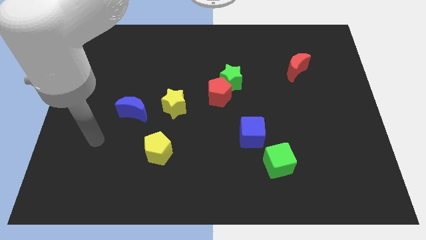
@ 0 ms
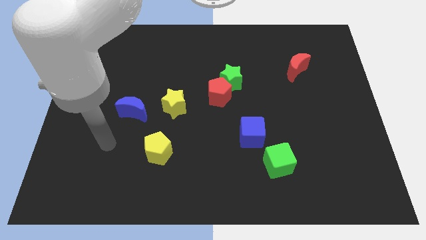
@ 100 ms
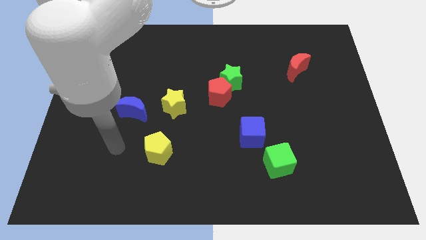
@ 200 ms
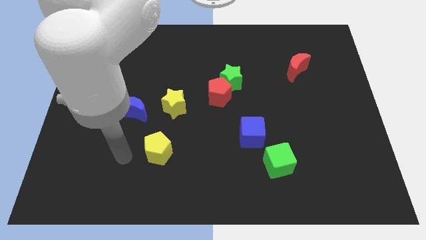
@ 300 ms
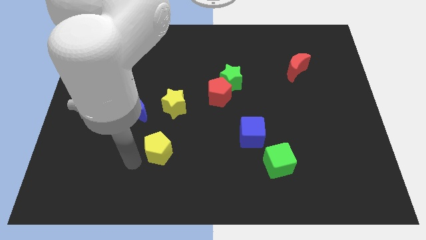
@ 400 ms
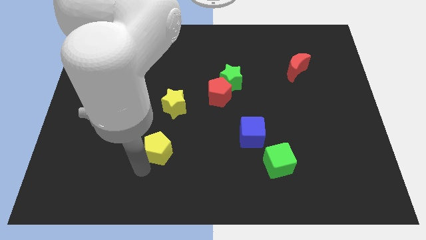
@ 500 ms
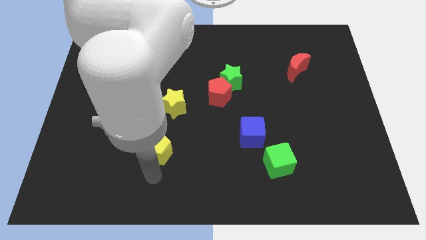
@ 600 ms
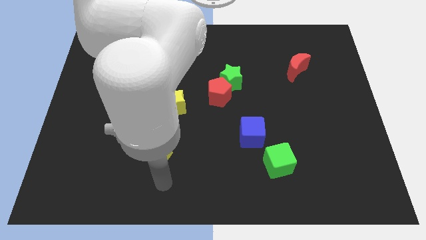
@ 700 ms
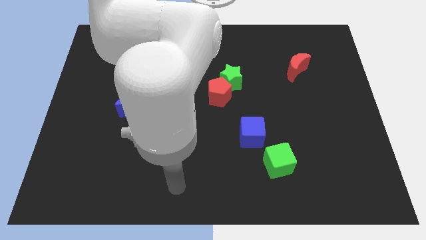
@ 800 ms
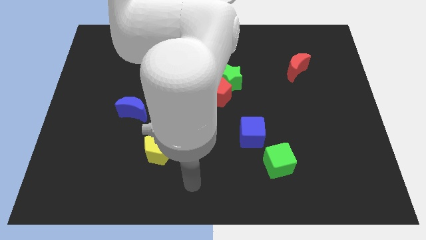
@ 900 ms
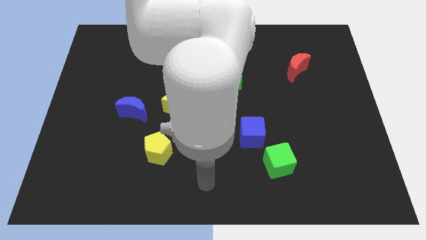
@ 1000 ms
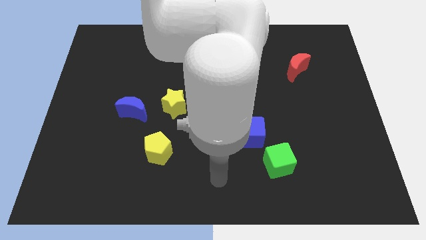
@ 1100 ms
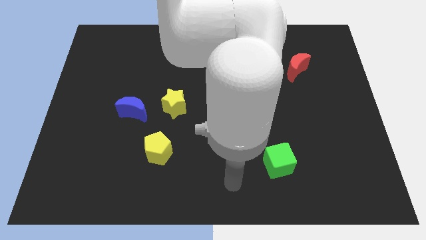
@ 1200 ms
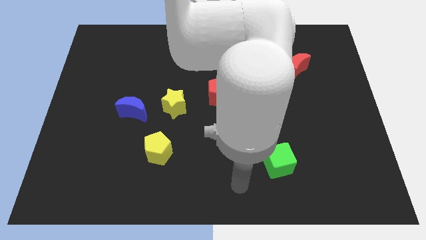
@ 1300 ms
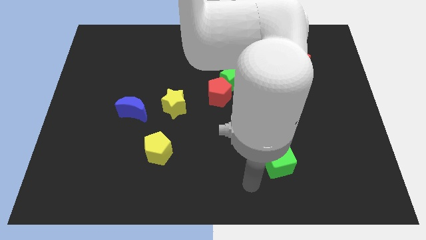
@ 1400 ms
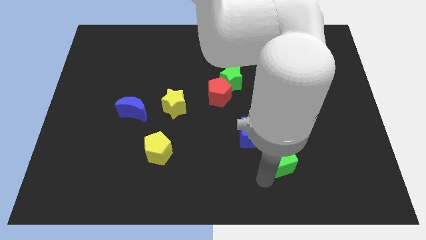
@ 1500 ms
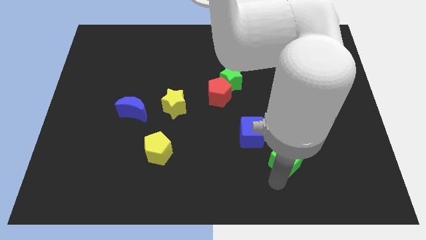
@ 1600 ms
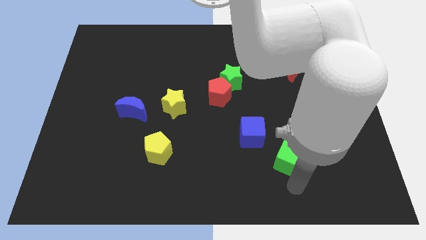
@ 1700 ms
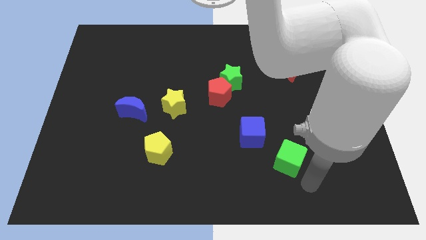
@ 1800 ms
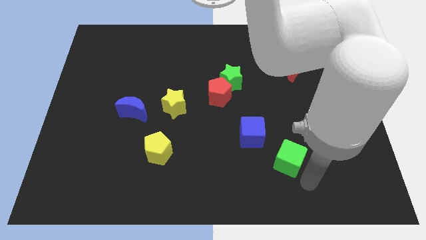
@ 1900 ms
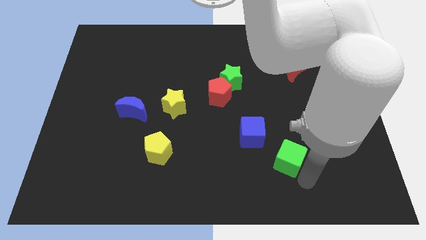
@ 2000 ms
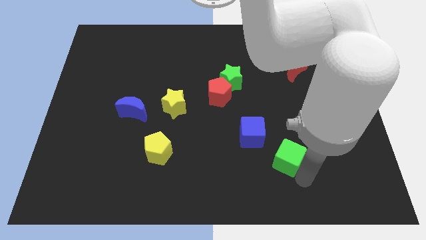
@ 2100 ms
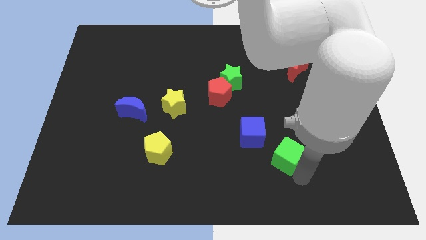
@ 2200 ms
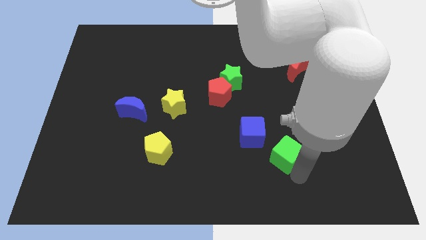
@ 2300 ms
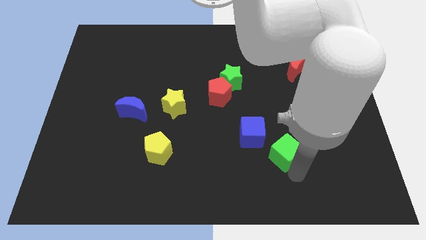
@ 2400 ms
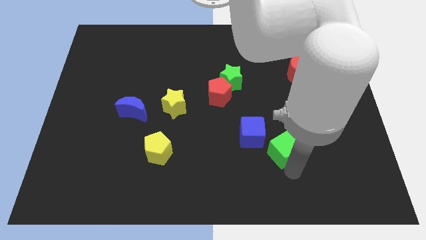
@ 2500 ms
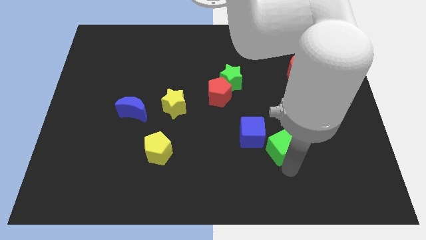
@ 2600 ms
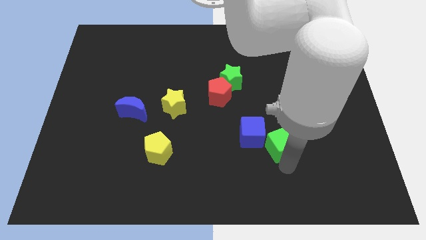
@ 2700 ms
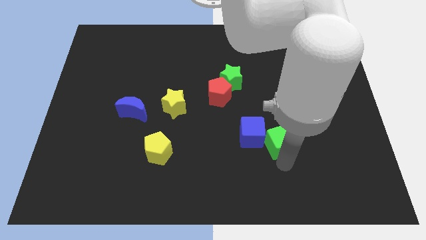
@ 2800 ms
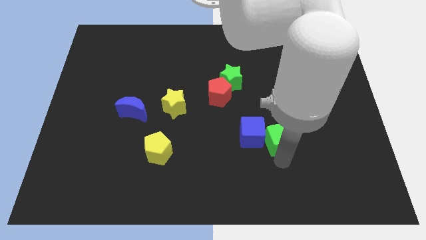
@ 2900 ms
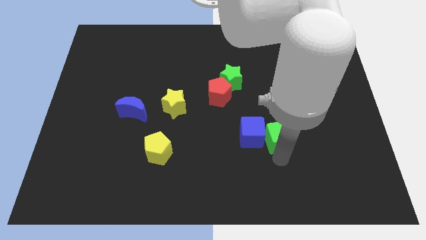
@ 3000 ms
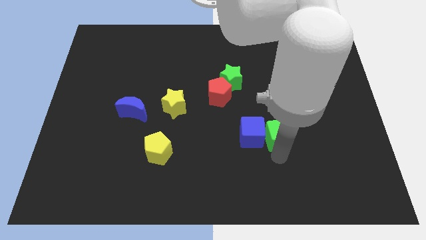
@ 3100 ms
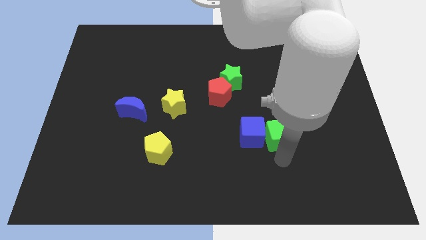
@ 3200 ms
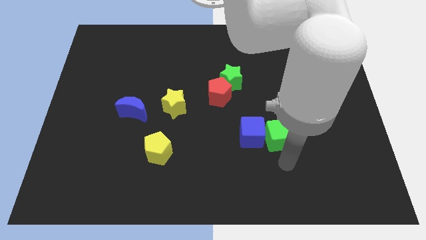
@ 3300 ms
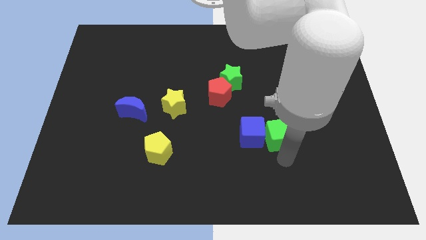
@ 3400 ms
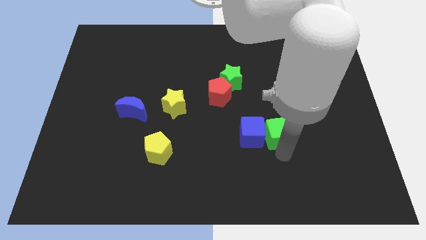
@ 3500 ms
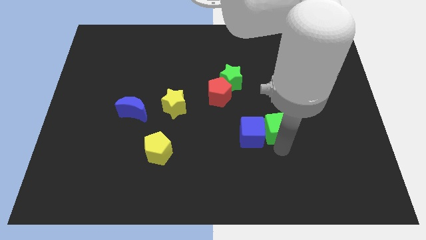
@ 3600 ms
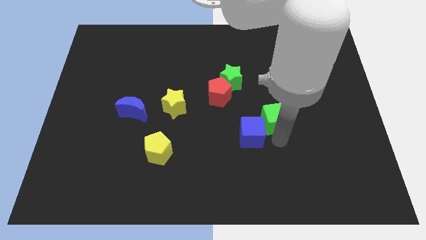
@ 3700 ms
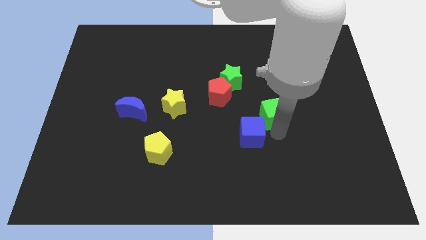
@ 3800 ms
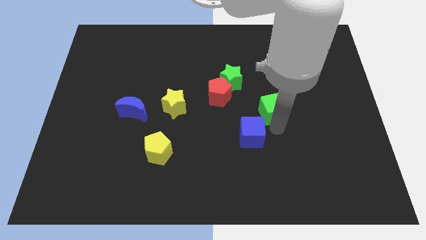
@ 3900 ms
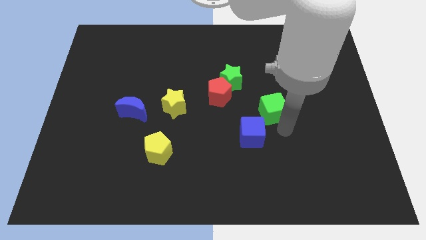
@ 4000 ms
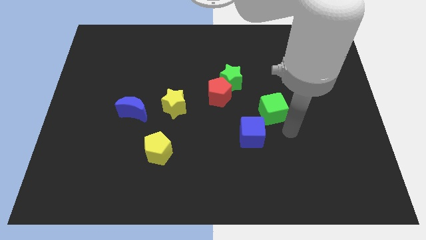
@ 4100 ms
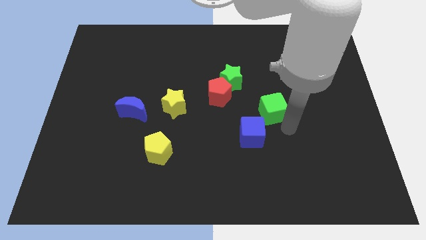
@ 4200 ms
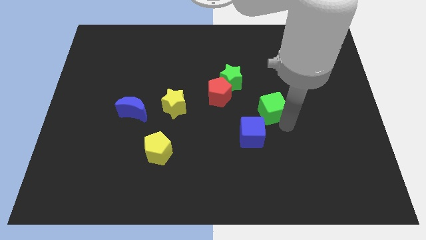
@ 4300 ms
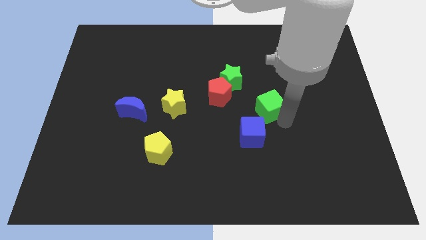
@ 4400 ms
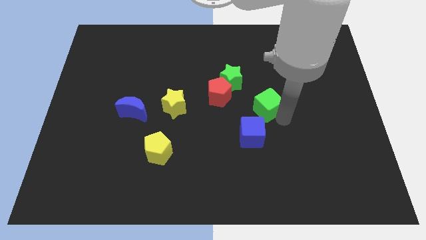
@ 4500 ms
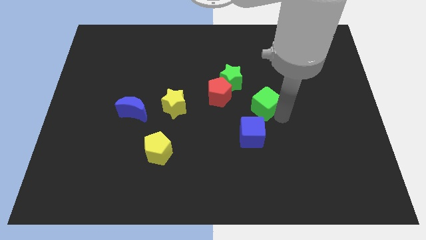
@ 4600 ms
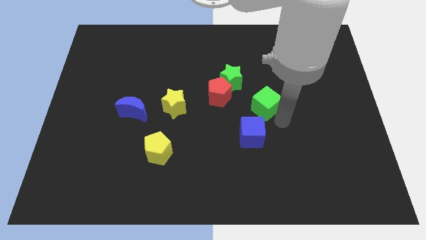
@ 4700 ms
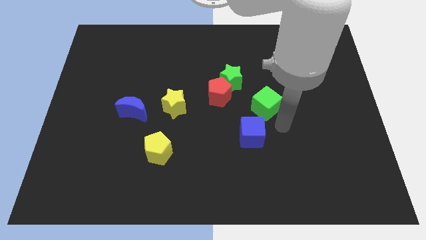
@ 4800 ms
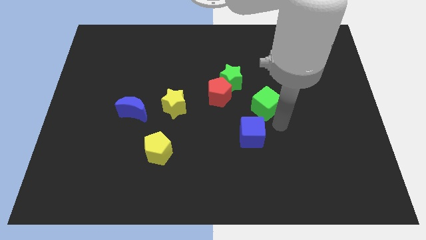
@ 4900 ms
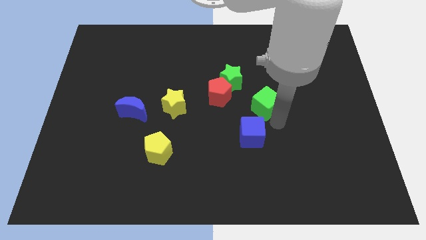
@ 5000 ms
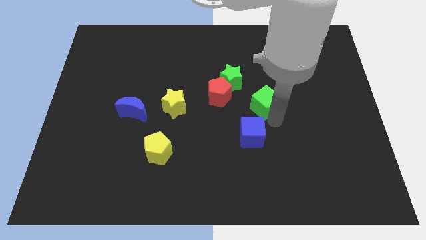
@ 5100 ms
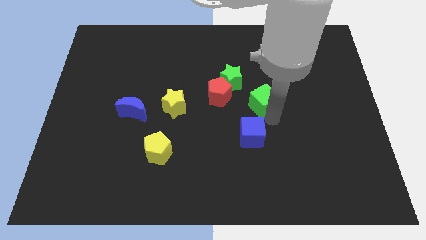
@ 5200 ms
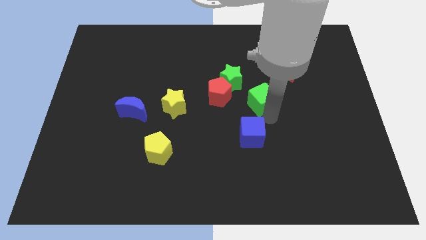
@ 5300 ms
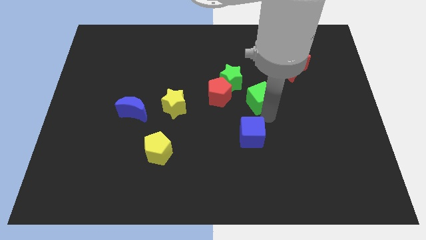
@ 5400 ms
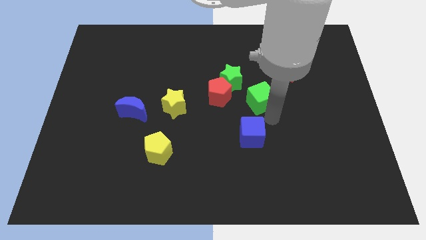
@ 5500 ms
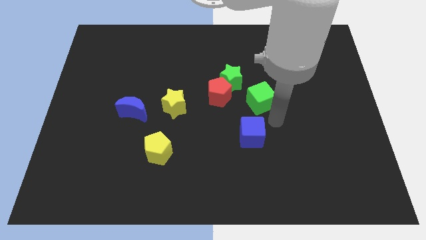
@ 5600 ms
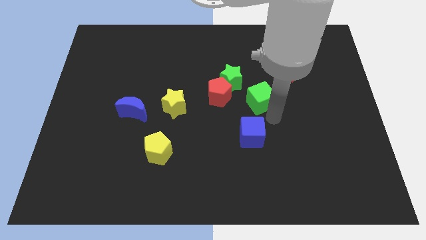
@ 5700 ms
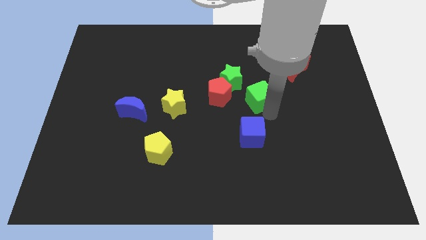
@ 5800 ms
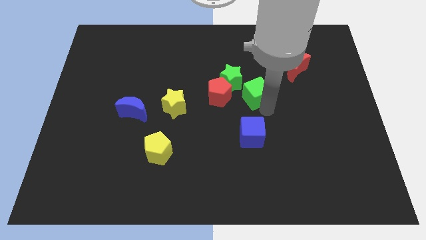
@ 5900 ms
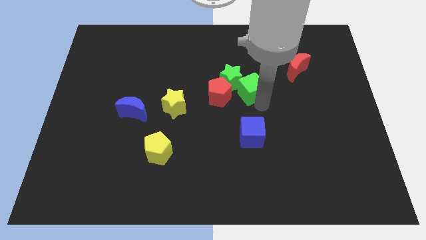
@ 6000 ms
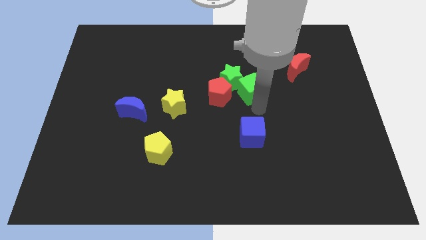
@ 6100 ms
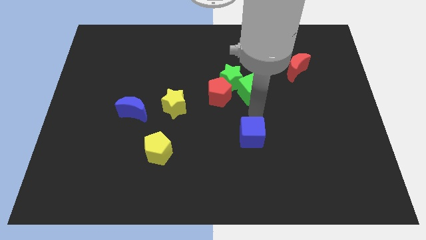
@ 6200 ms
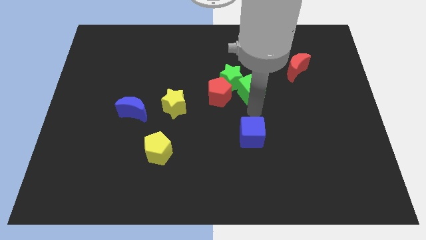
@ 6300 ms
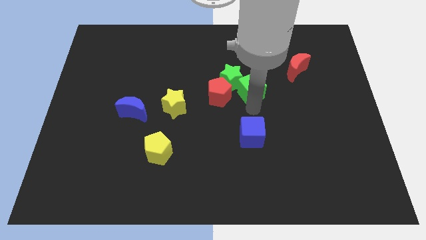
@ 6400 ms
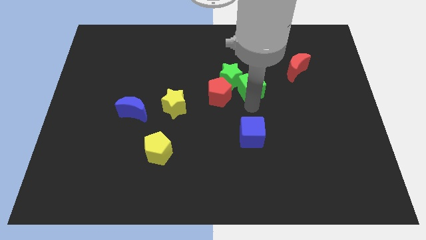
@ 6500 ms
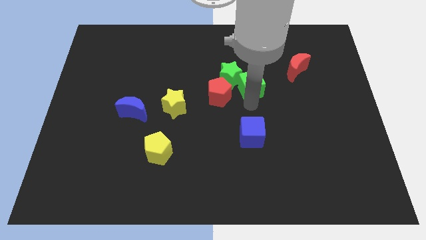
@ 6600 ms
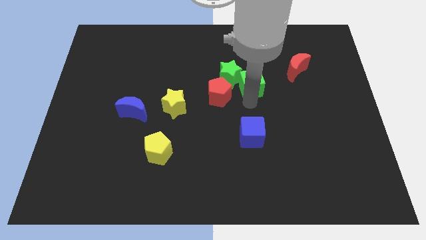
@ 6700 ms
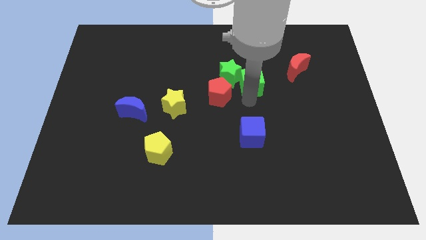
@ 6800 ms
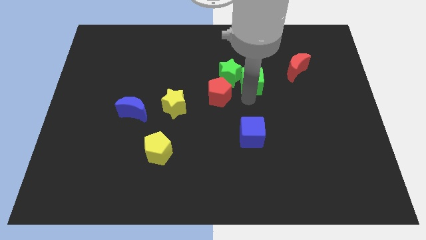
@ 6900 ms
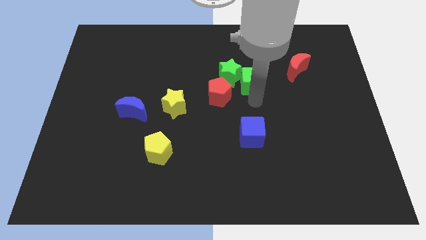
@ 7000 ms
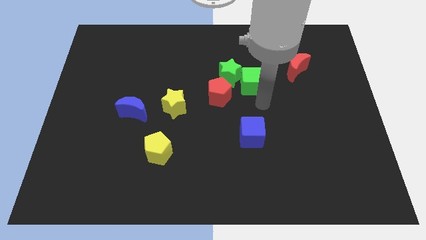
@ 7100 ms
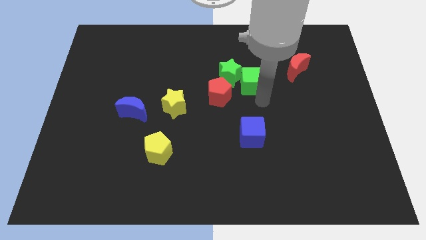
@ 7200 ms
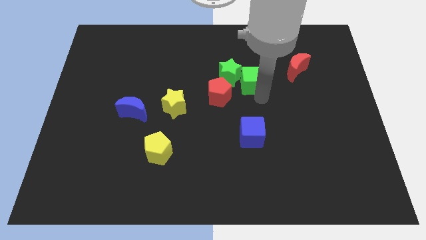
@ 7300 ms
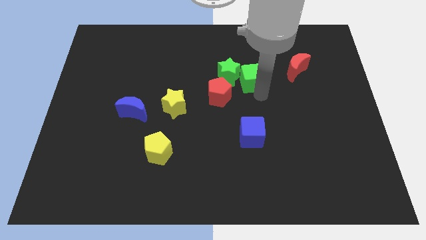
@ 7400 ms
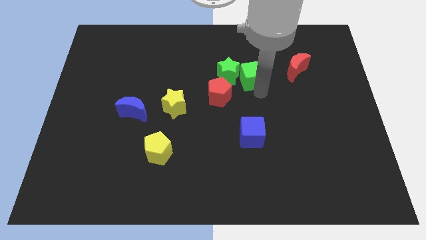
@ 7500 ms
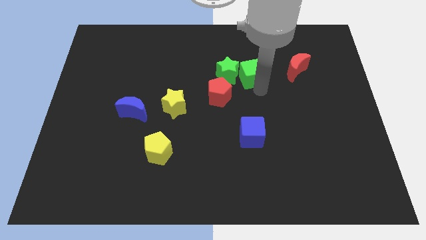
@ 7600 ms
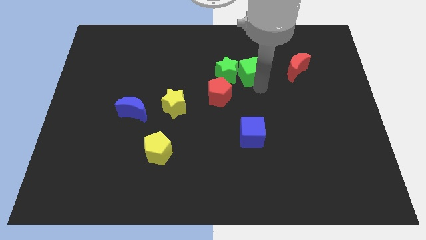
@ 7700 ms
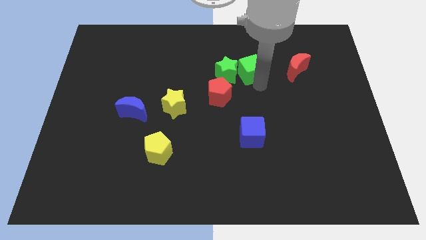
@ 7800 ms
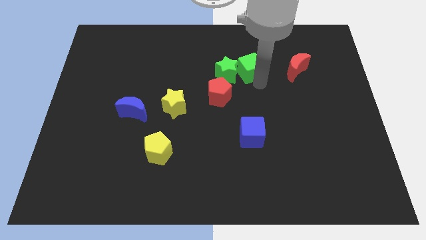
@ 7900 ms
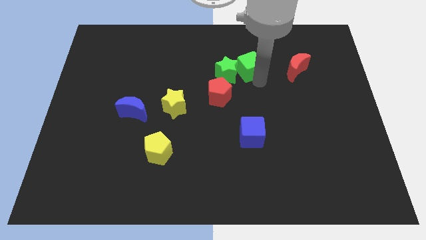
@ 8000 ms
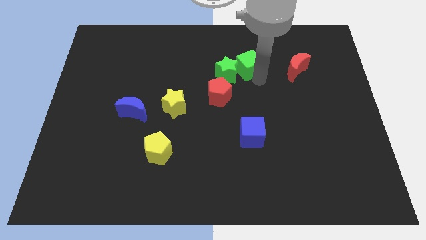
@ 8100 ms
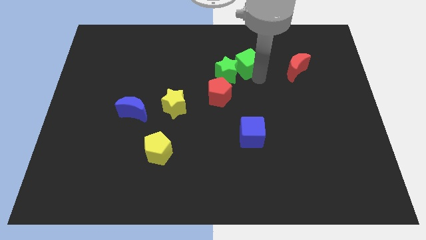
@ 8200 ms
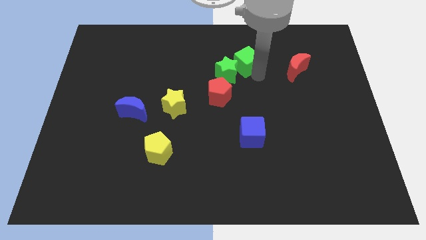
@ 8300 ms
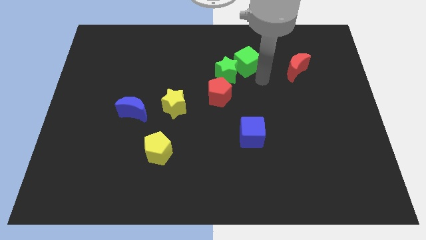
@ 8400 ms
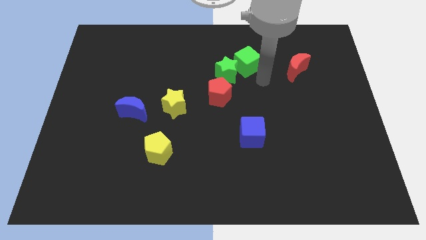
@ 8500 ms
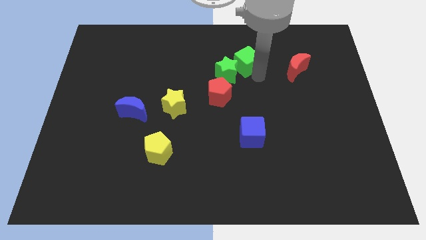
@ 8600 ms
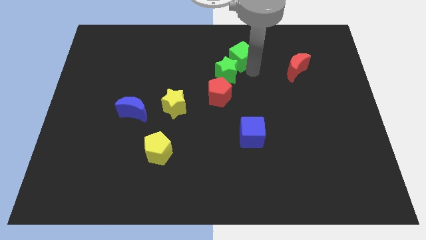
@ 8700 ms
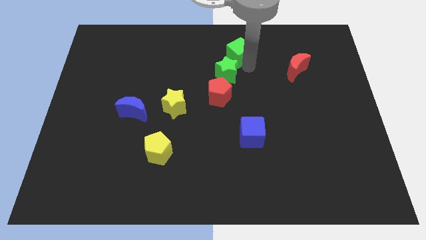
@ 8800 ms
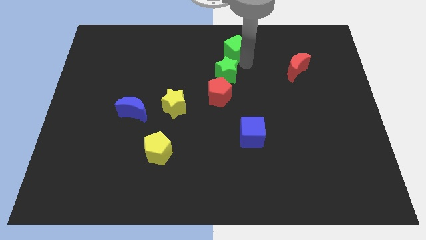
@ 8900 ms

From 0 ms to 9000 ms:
push the green cube to the top
